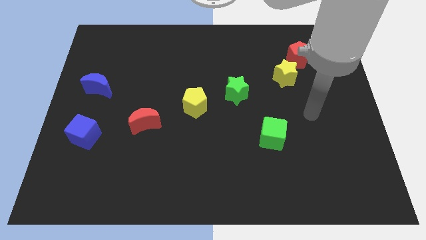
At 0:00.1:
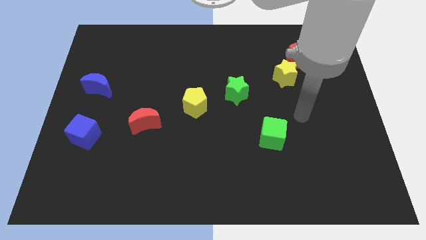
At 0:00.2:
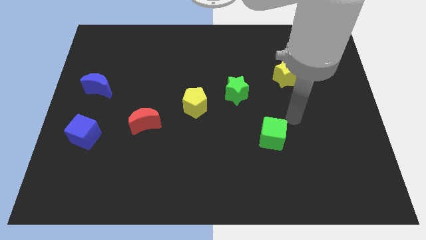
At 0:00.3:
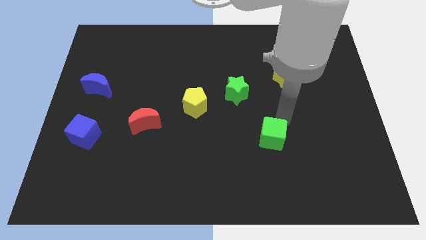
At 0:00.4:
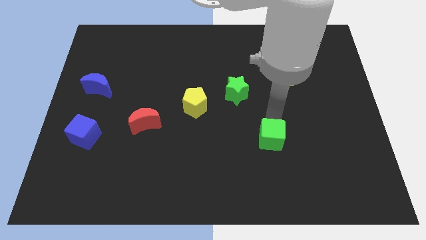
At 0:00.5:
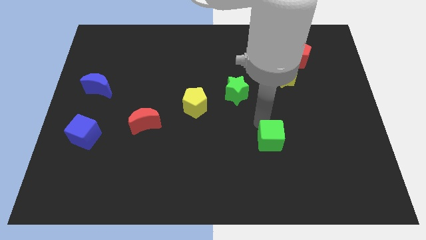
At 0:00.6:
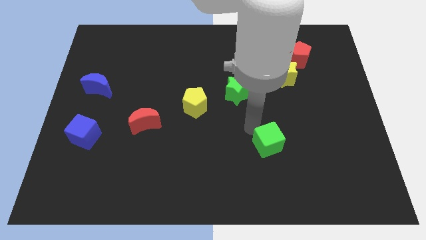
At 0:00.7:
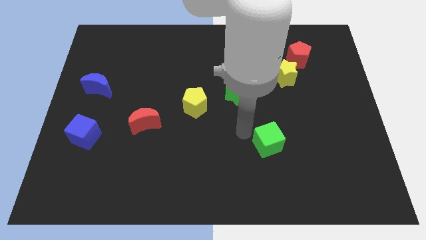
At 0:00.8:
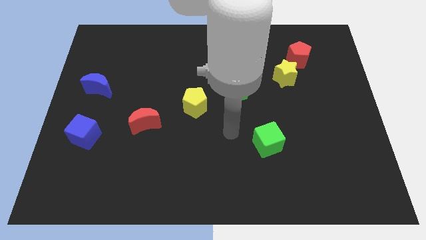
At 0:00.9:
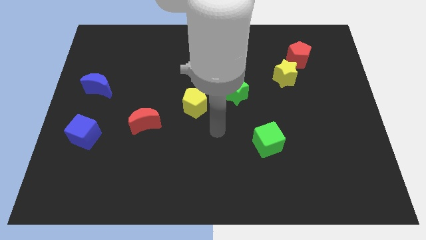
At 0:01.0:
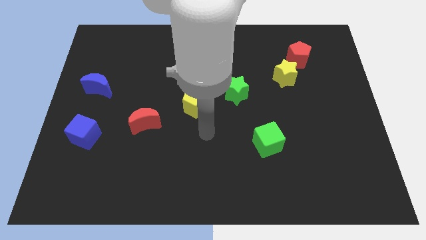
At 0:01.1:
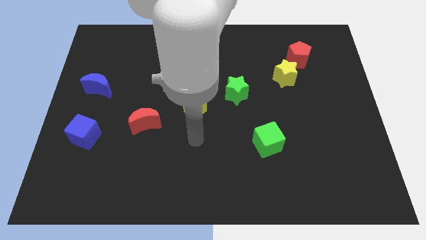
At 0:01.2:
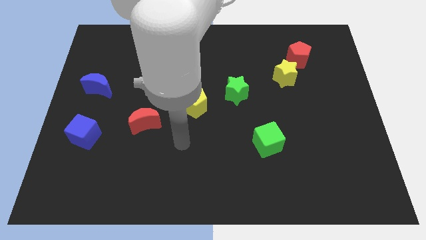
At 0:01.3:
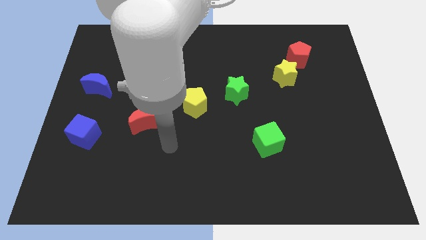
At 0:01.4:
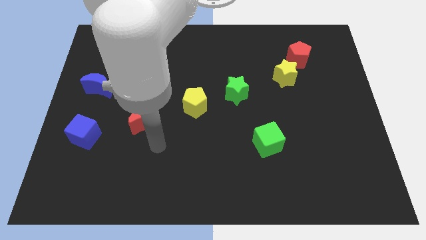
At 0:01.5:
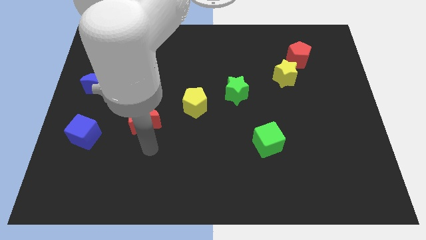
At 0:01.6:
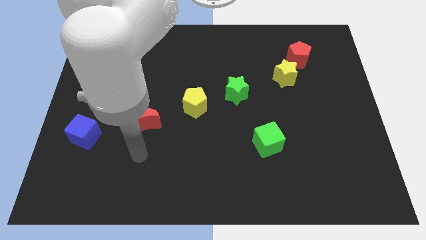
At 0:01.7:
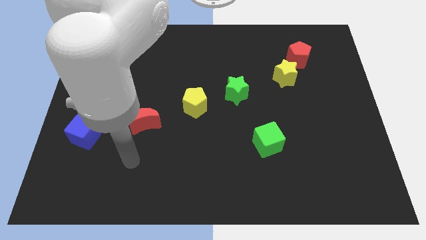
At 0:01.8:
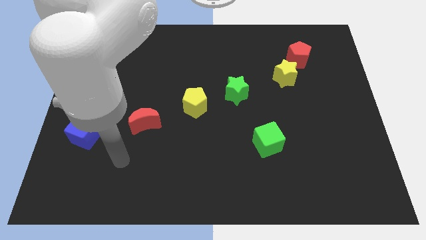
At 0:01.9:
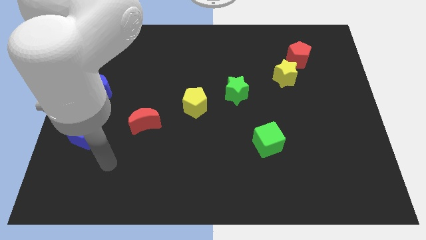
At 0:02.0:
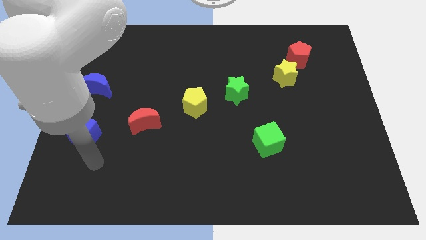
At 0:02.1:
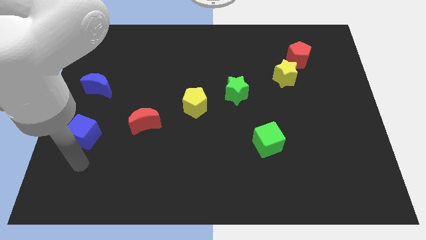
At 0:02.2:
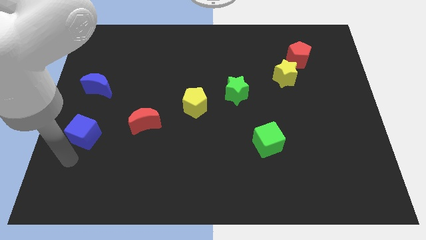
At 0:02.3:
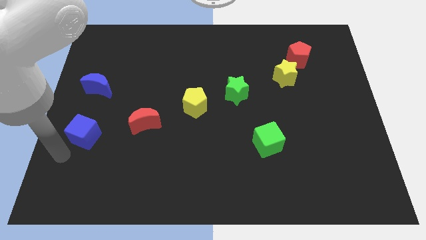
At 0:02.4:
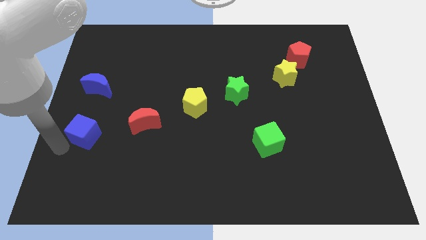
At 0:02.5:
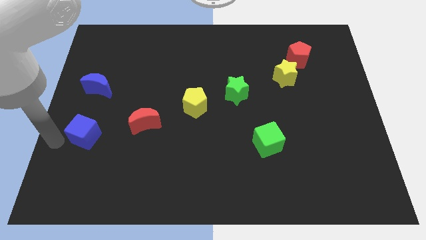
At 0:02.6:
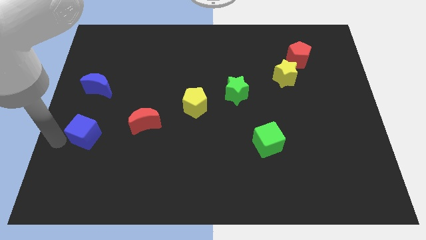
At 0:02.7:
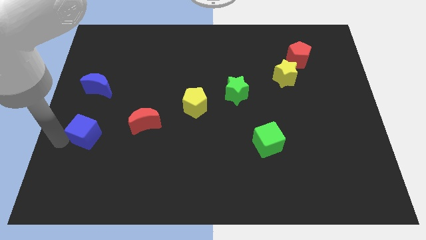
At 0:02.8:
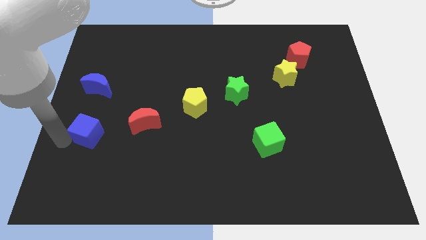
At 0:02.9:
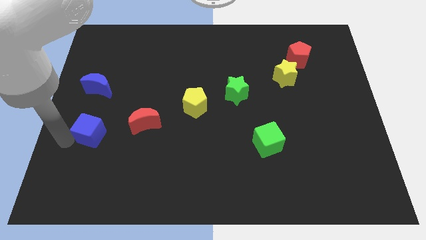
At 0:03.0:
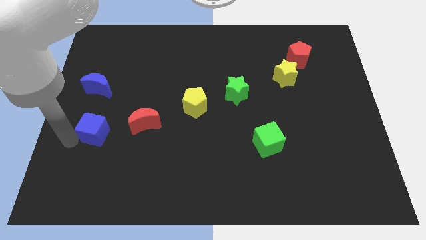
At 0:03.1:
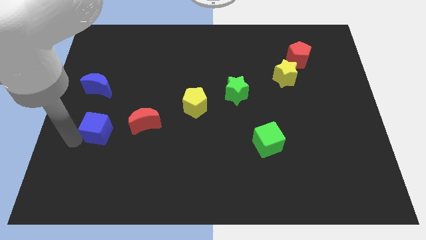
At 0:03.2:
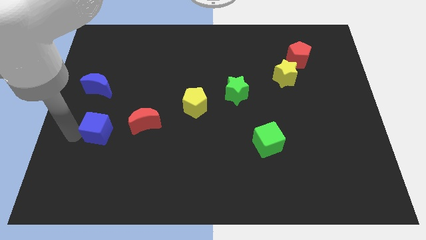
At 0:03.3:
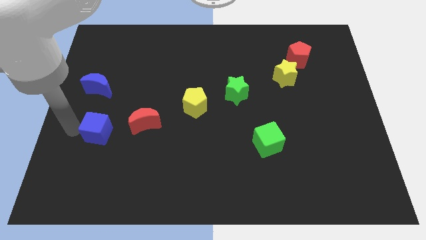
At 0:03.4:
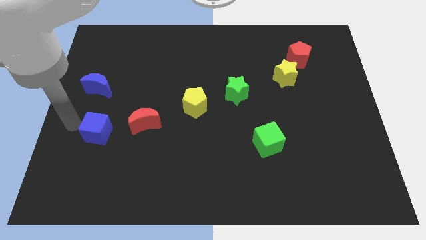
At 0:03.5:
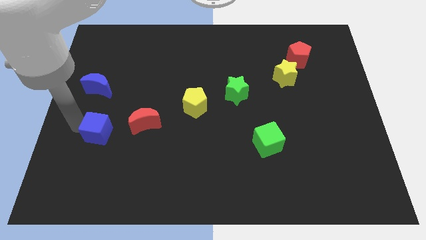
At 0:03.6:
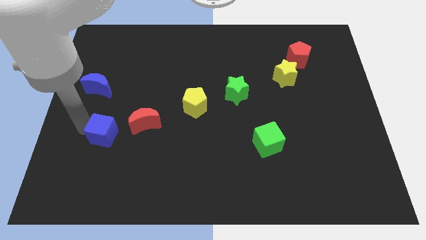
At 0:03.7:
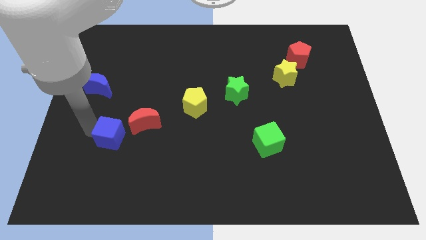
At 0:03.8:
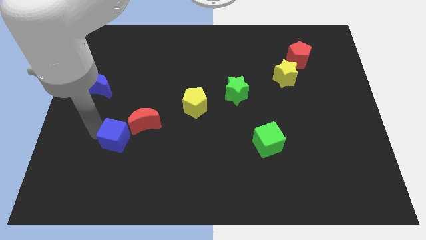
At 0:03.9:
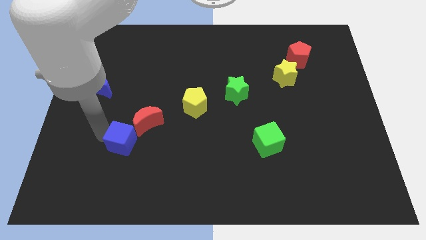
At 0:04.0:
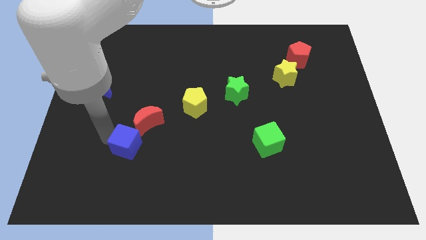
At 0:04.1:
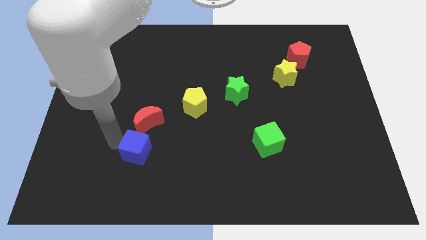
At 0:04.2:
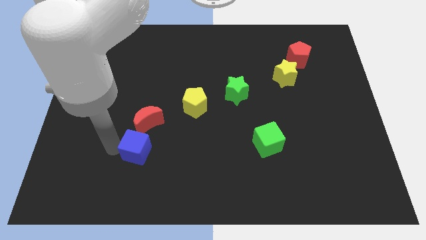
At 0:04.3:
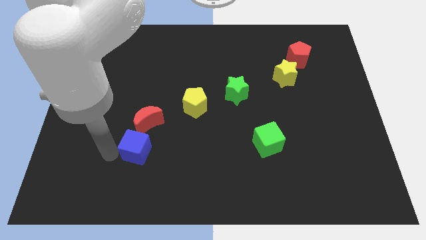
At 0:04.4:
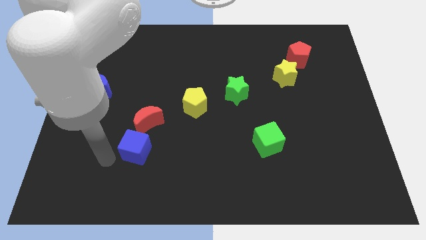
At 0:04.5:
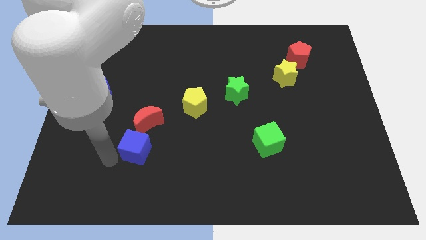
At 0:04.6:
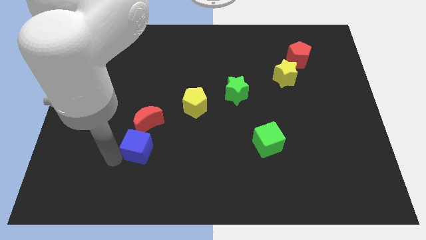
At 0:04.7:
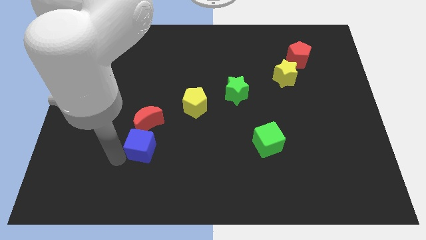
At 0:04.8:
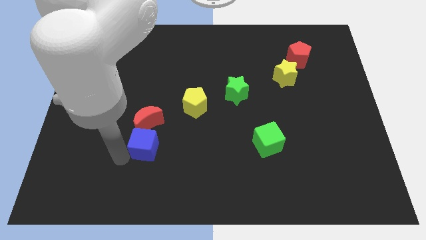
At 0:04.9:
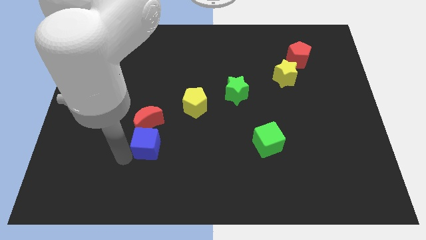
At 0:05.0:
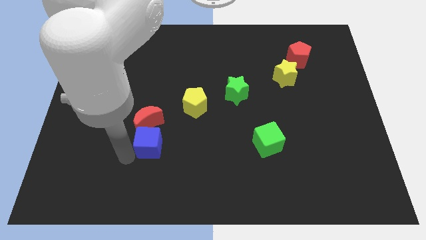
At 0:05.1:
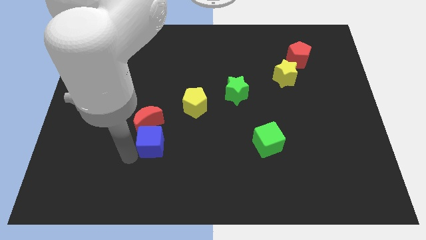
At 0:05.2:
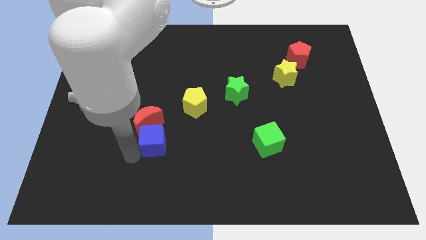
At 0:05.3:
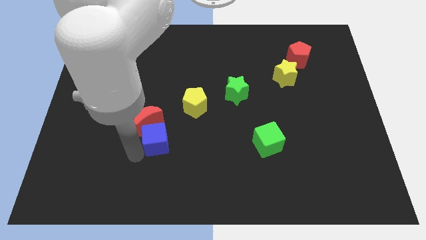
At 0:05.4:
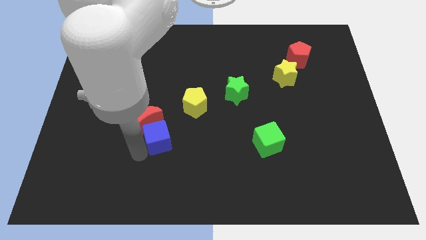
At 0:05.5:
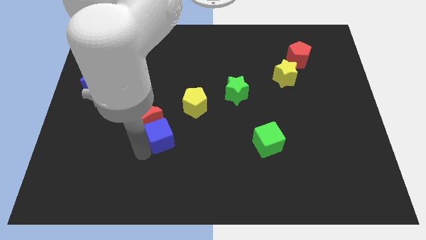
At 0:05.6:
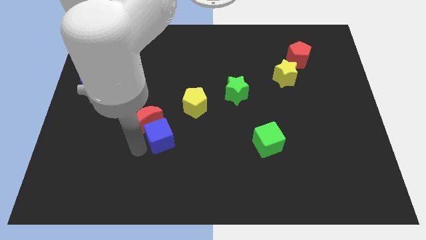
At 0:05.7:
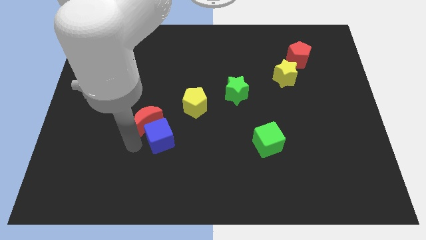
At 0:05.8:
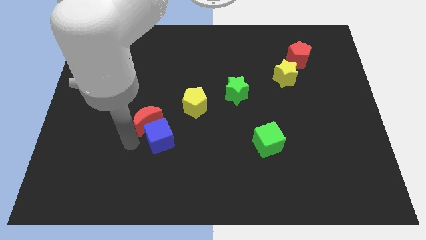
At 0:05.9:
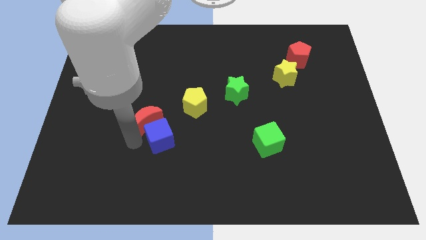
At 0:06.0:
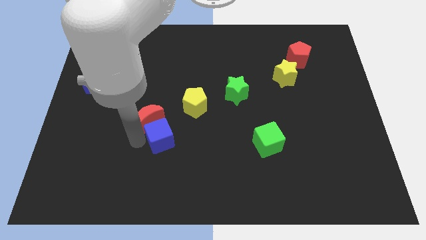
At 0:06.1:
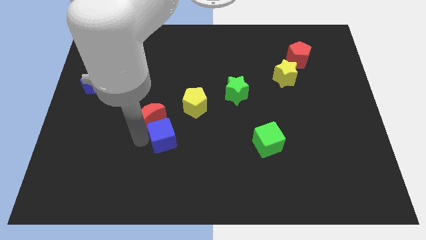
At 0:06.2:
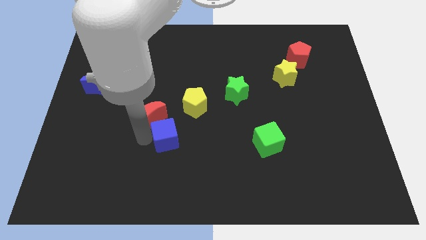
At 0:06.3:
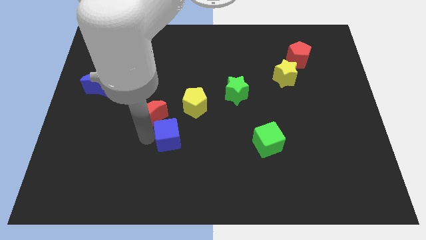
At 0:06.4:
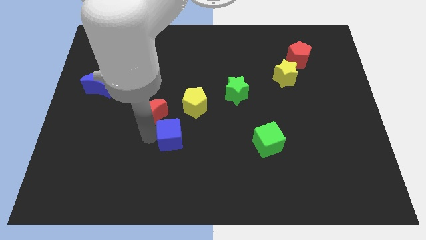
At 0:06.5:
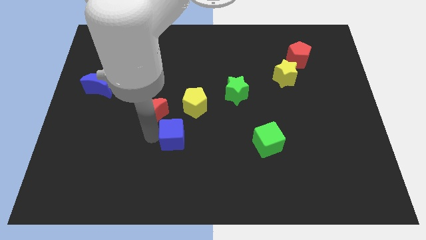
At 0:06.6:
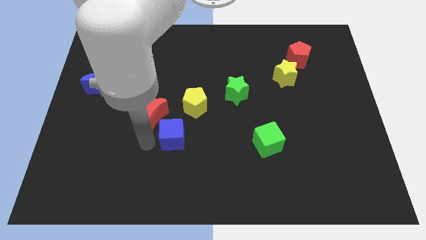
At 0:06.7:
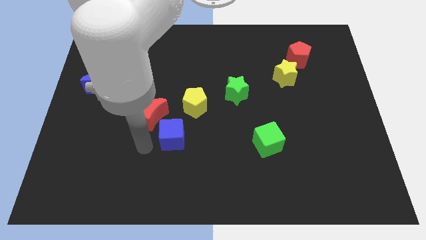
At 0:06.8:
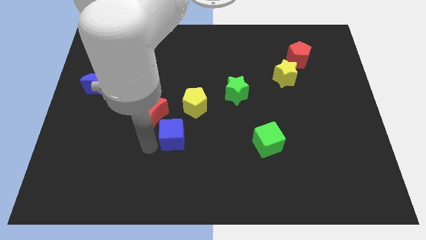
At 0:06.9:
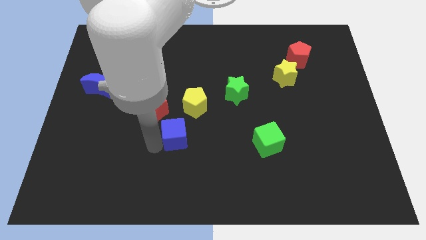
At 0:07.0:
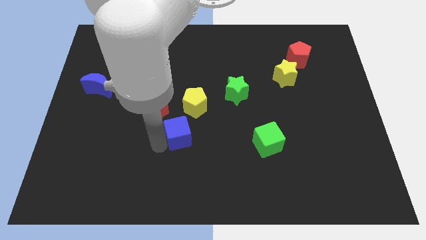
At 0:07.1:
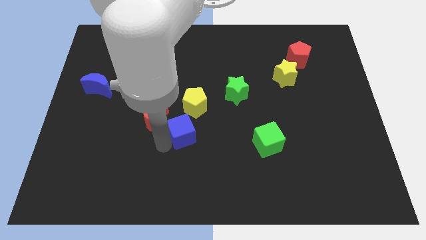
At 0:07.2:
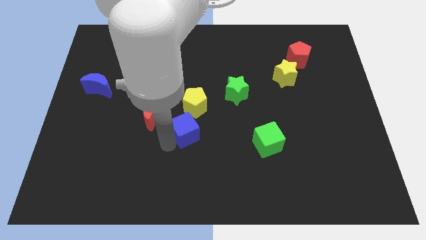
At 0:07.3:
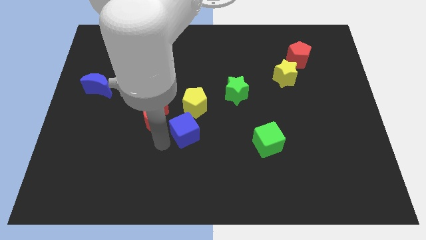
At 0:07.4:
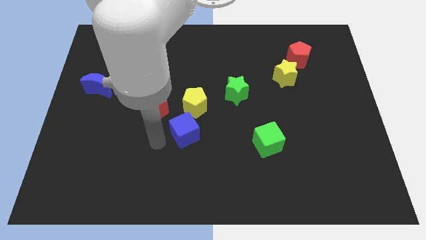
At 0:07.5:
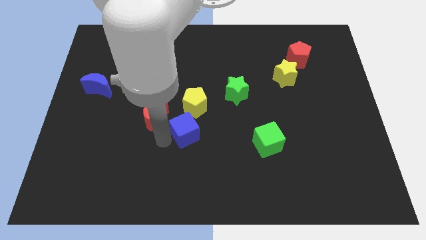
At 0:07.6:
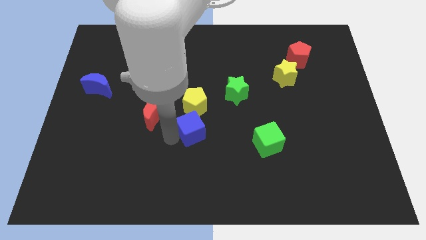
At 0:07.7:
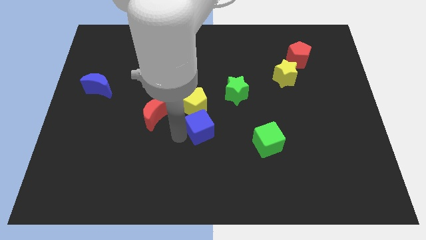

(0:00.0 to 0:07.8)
move the blue cube to the bottom right of the yellow pentagon
